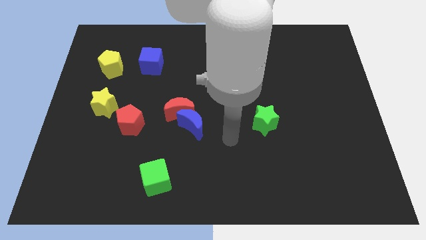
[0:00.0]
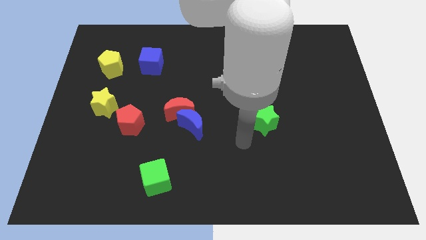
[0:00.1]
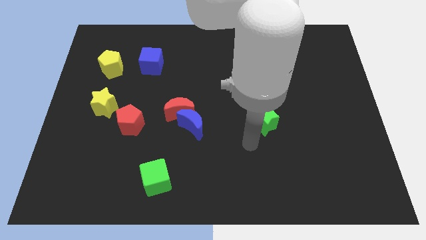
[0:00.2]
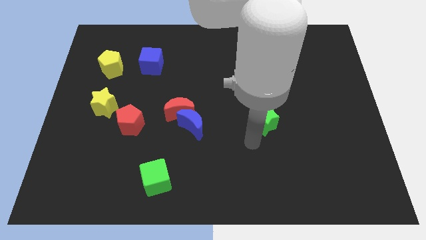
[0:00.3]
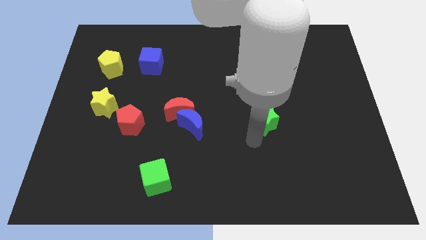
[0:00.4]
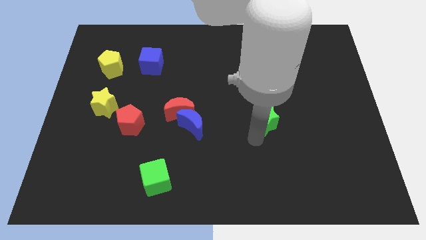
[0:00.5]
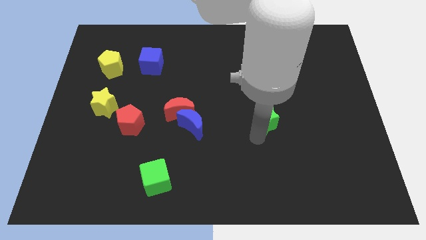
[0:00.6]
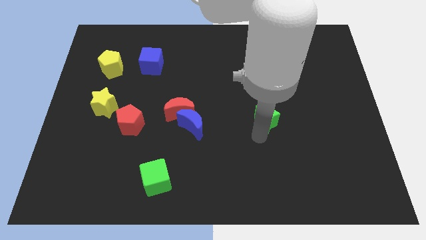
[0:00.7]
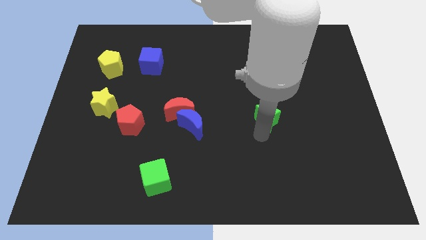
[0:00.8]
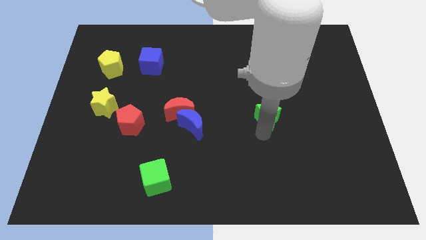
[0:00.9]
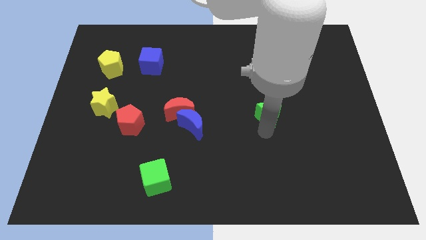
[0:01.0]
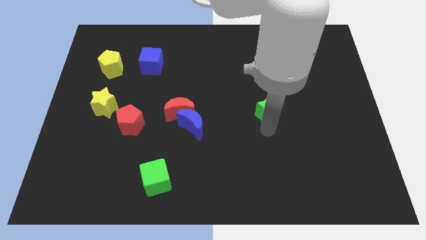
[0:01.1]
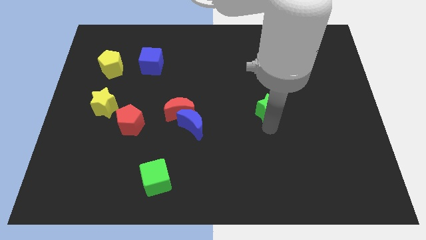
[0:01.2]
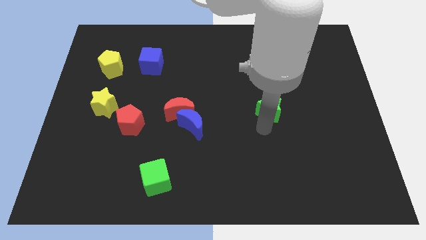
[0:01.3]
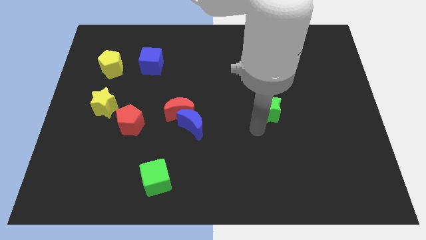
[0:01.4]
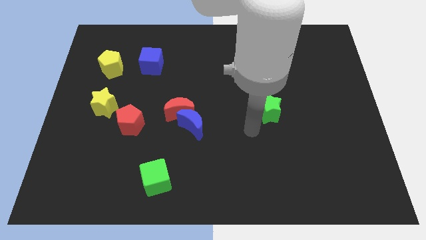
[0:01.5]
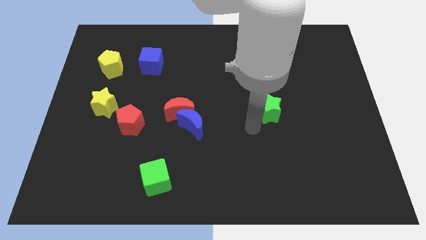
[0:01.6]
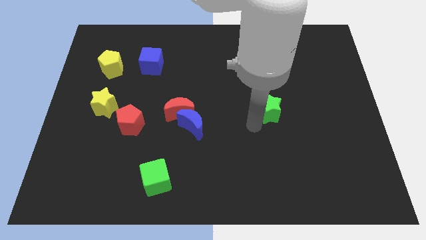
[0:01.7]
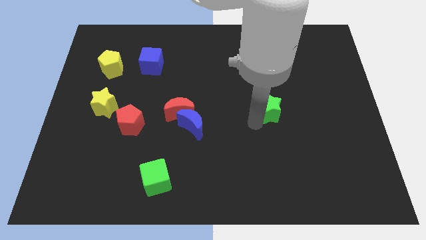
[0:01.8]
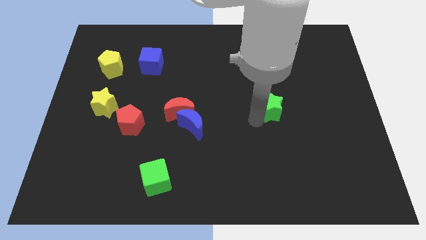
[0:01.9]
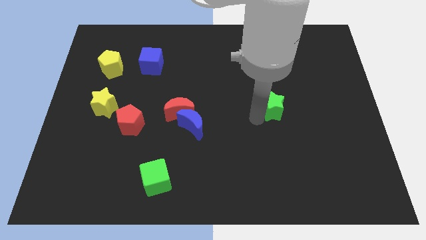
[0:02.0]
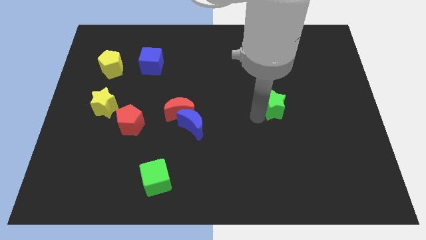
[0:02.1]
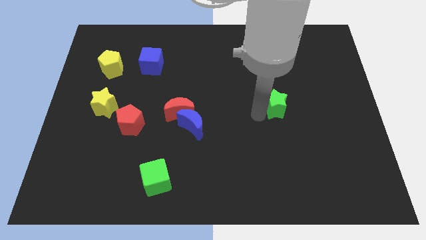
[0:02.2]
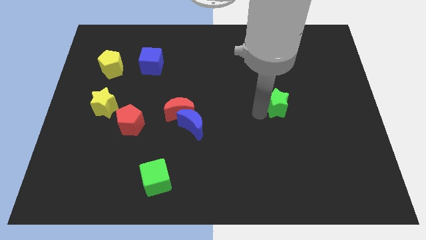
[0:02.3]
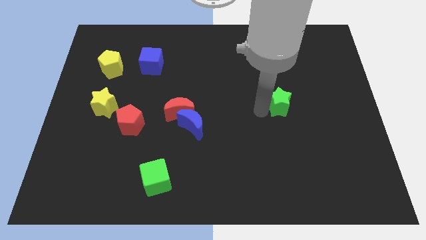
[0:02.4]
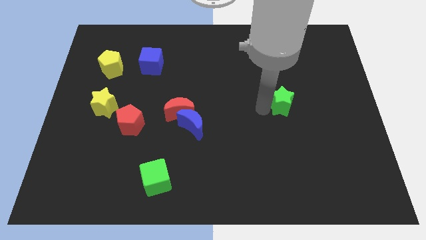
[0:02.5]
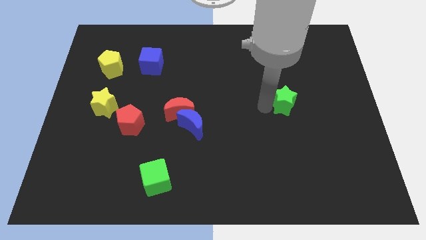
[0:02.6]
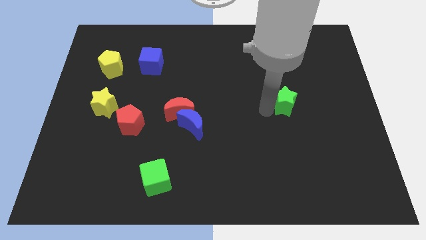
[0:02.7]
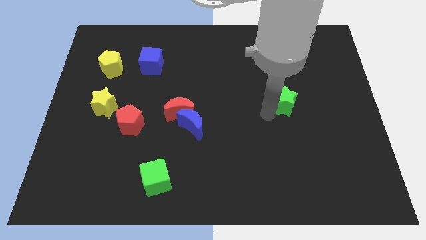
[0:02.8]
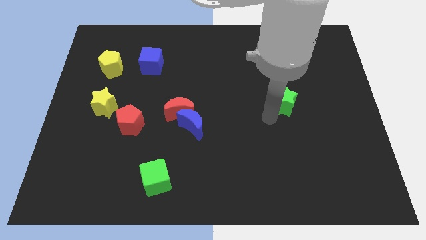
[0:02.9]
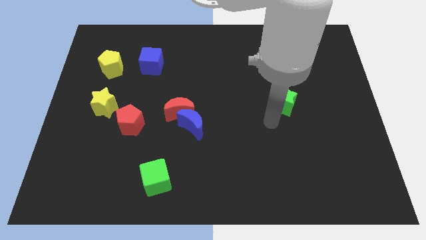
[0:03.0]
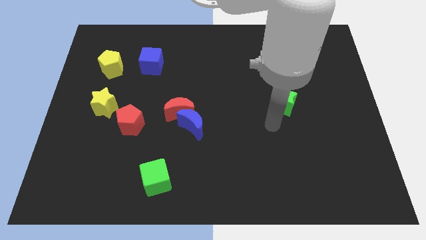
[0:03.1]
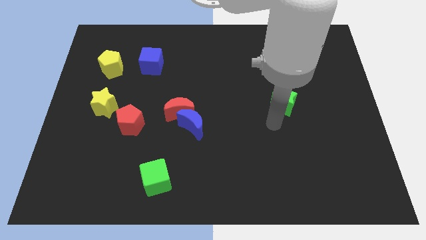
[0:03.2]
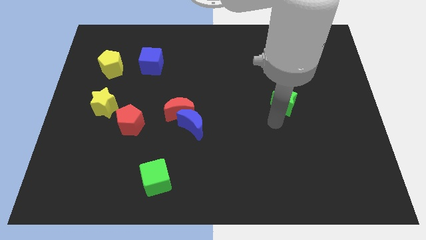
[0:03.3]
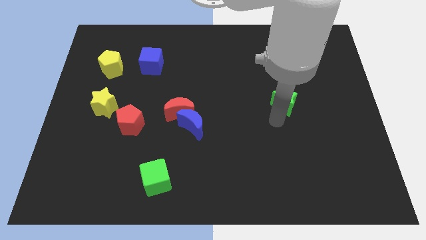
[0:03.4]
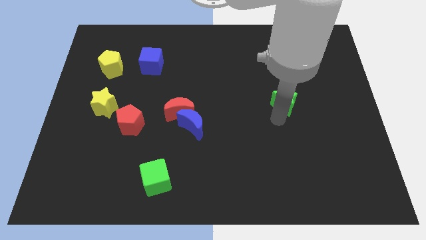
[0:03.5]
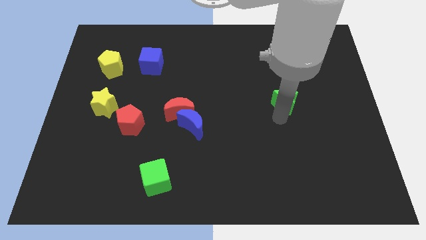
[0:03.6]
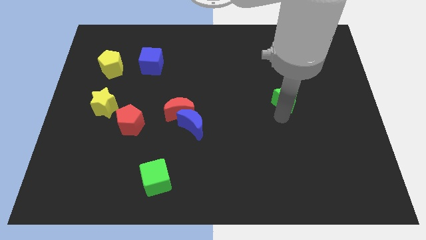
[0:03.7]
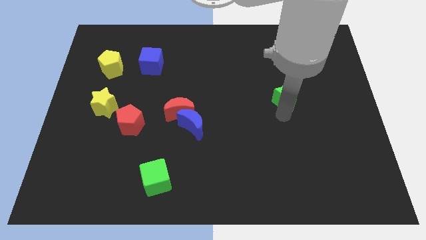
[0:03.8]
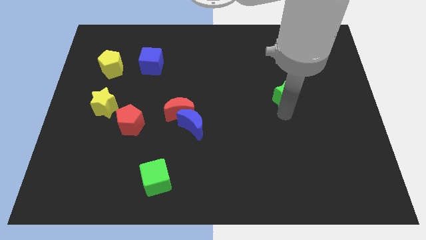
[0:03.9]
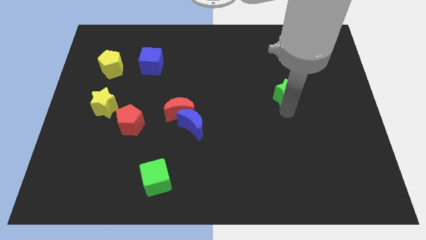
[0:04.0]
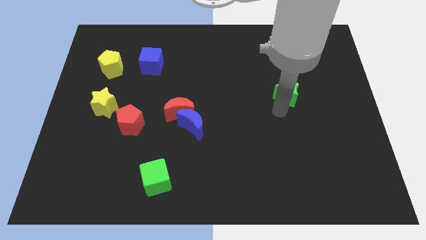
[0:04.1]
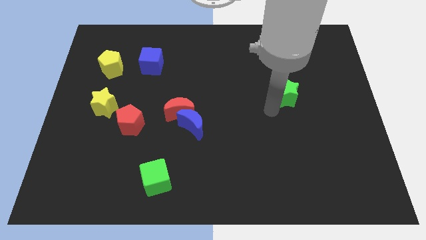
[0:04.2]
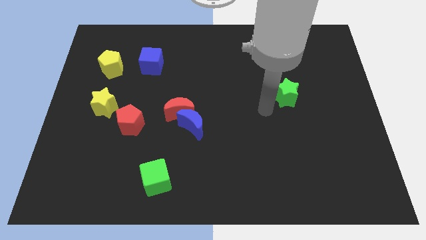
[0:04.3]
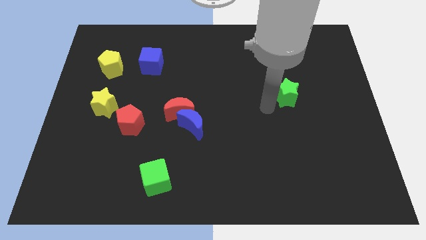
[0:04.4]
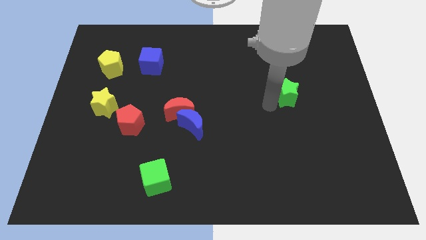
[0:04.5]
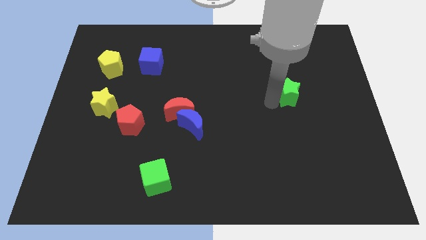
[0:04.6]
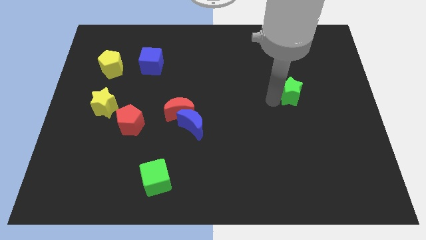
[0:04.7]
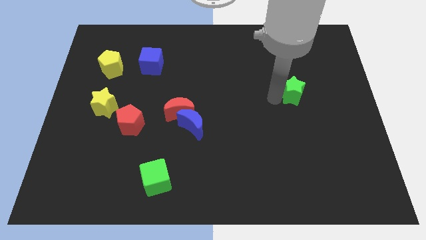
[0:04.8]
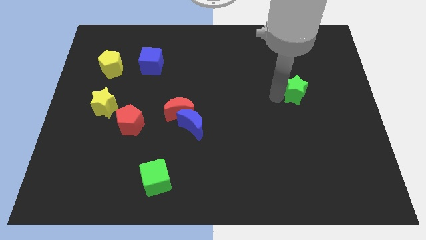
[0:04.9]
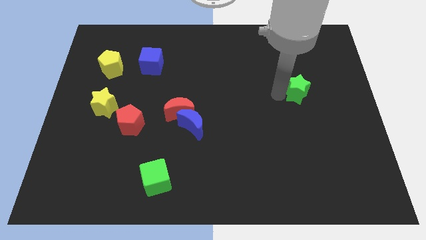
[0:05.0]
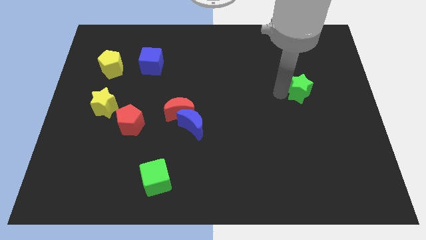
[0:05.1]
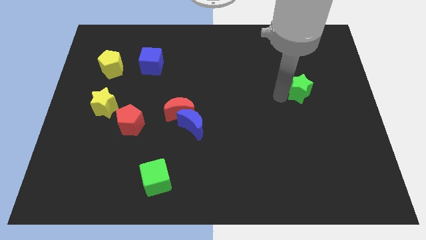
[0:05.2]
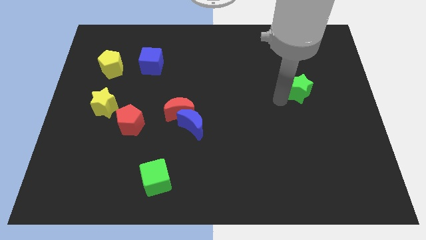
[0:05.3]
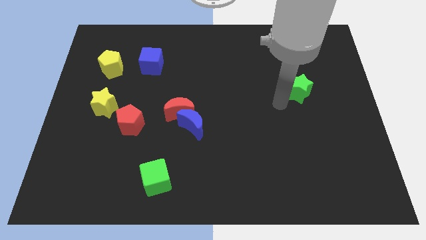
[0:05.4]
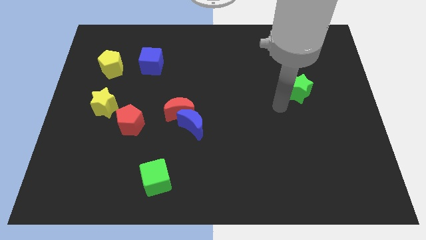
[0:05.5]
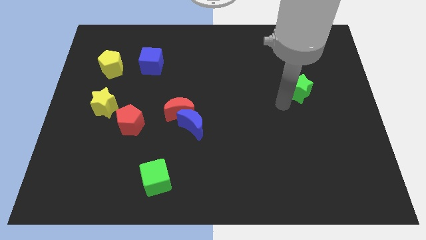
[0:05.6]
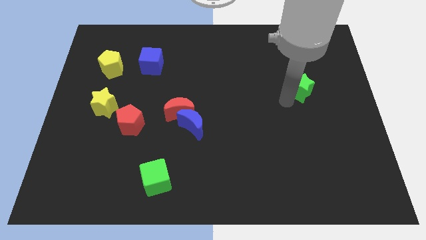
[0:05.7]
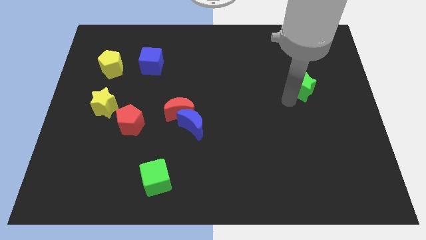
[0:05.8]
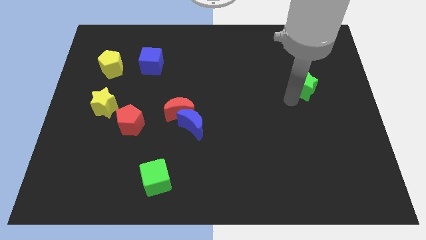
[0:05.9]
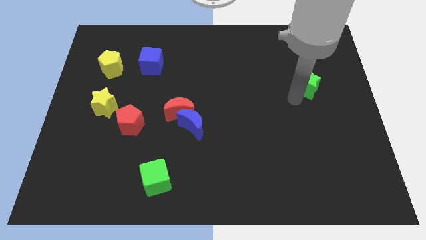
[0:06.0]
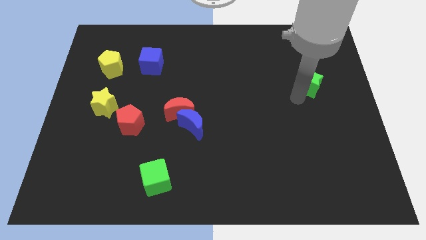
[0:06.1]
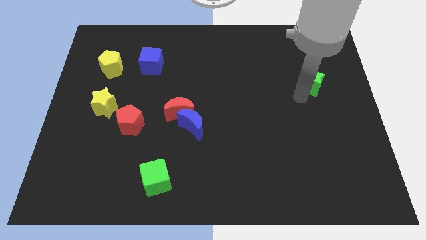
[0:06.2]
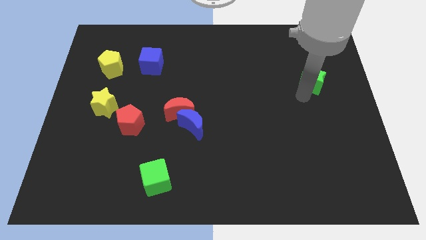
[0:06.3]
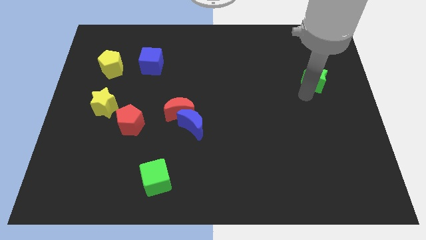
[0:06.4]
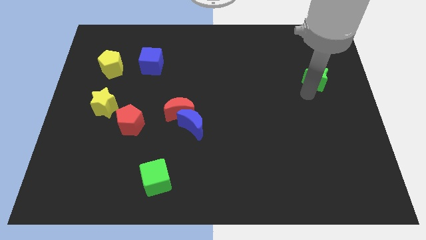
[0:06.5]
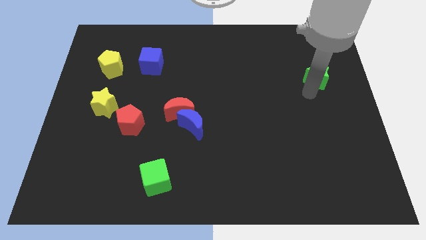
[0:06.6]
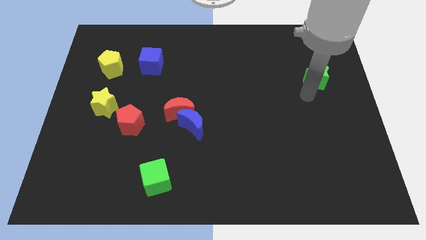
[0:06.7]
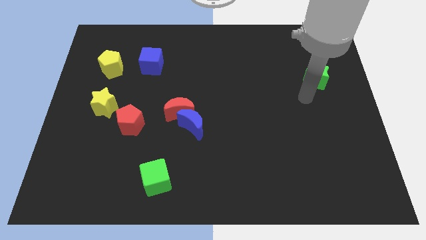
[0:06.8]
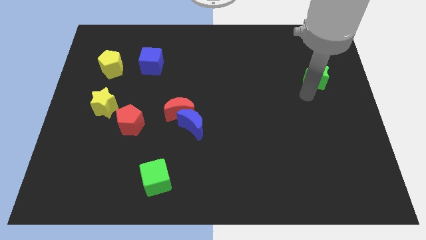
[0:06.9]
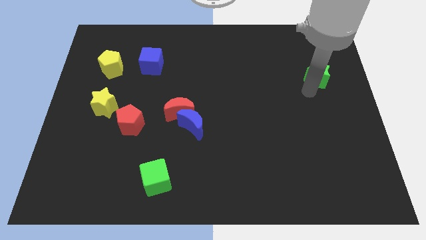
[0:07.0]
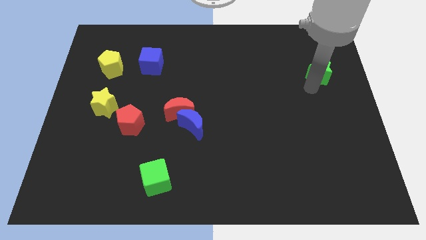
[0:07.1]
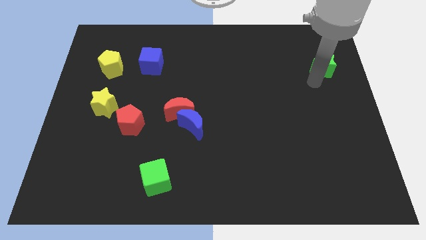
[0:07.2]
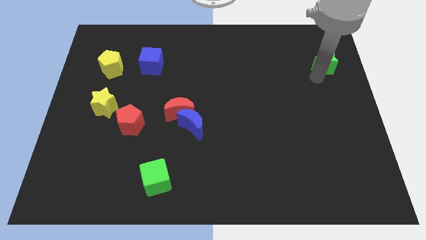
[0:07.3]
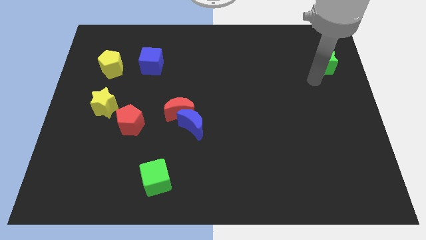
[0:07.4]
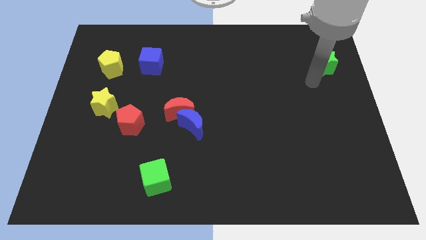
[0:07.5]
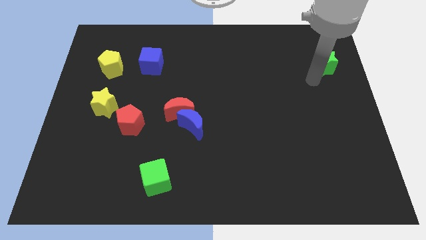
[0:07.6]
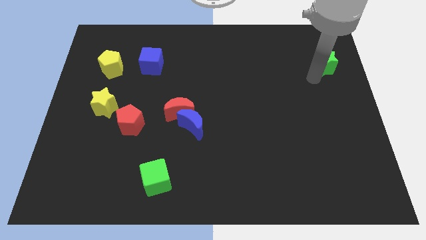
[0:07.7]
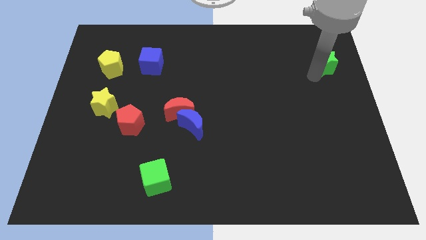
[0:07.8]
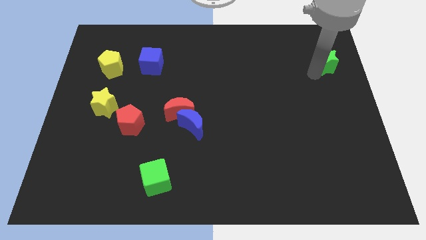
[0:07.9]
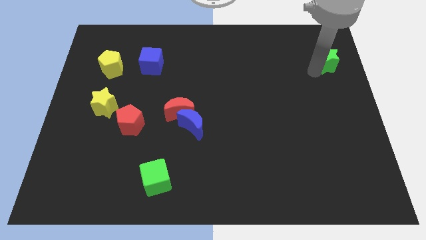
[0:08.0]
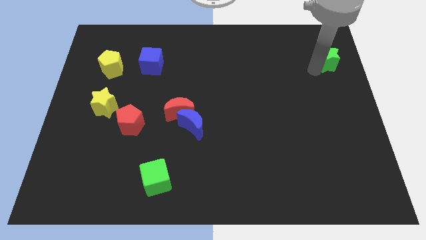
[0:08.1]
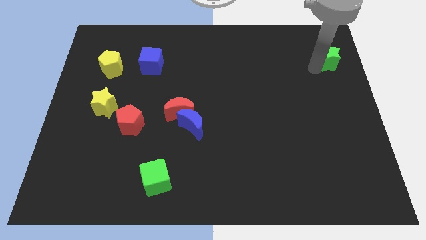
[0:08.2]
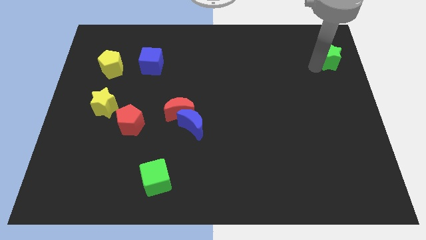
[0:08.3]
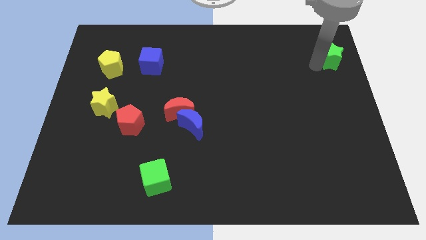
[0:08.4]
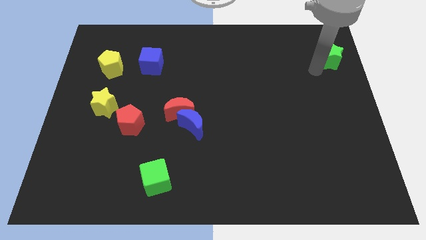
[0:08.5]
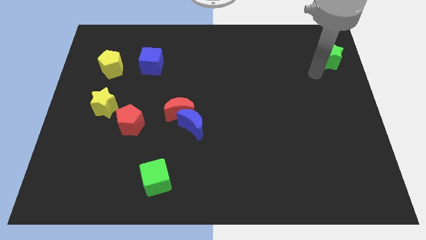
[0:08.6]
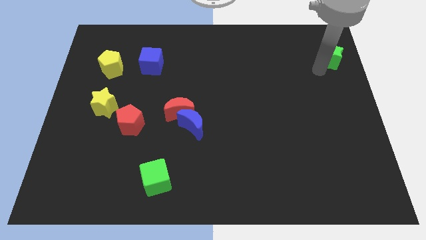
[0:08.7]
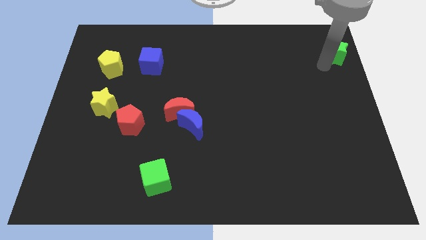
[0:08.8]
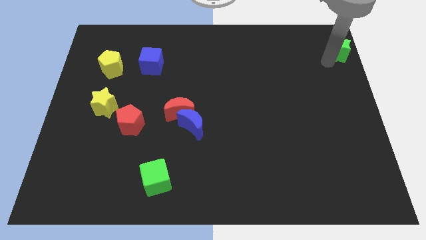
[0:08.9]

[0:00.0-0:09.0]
move the green star to the top right of the board
